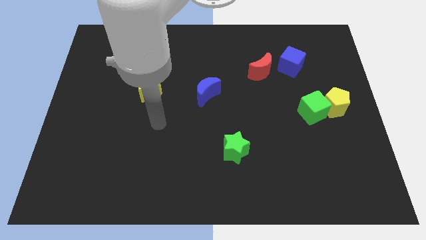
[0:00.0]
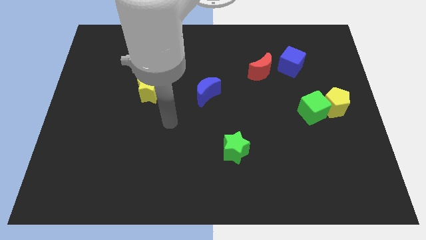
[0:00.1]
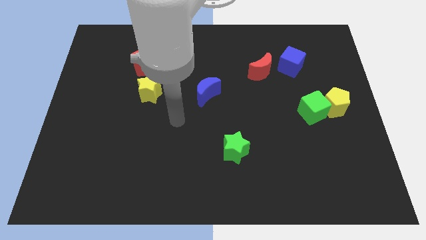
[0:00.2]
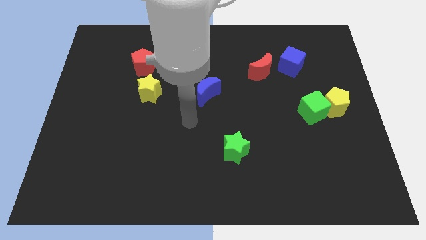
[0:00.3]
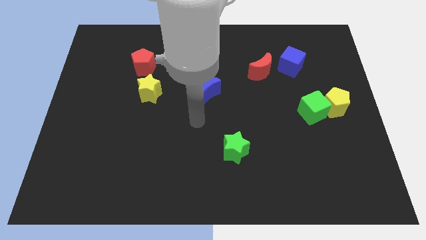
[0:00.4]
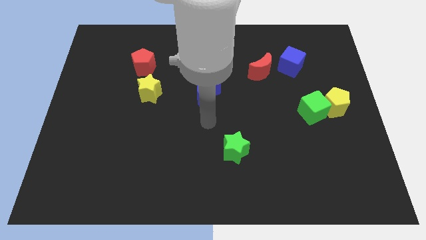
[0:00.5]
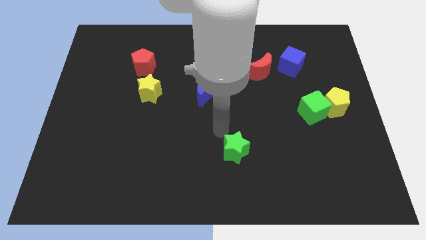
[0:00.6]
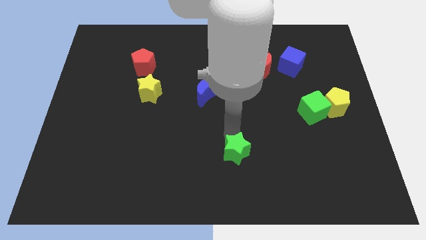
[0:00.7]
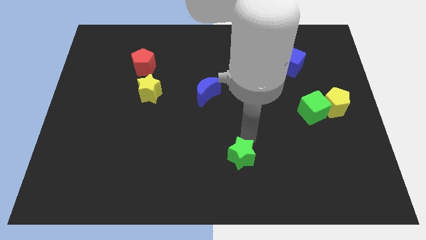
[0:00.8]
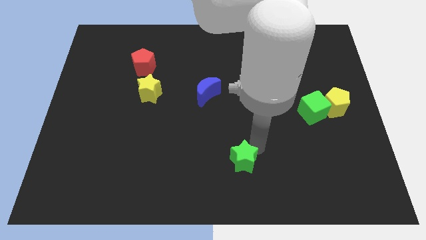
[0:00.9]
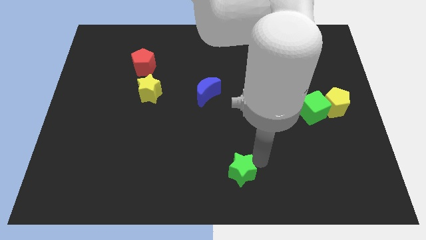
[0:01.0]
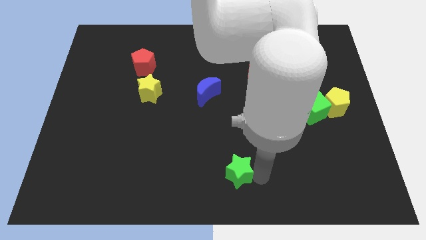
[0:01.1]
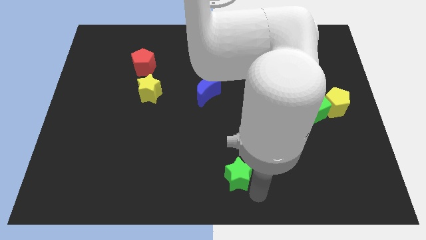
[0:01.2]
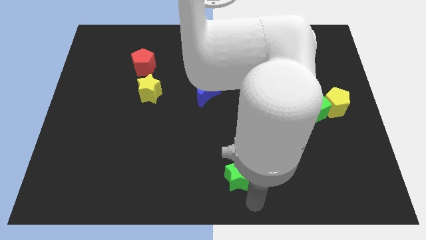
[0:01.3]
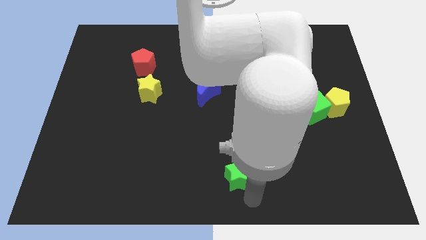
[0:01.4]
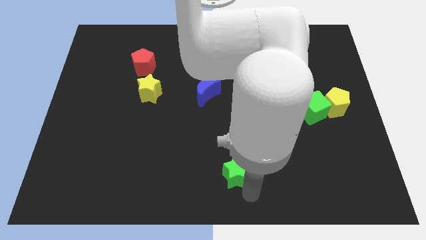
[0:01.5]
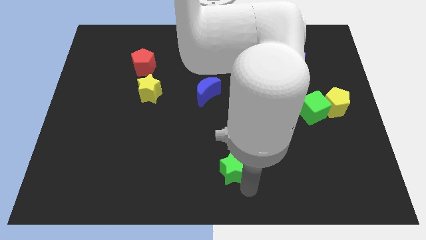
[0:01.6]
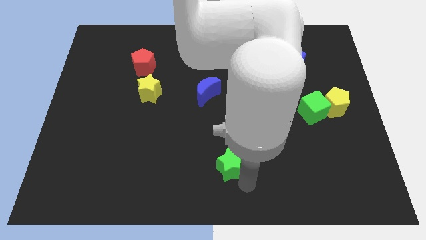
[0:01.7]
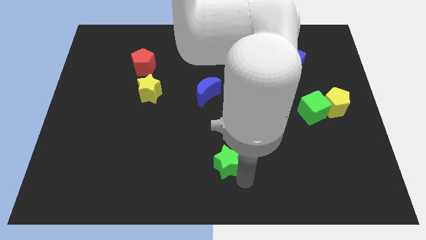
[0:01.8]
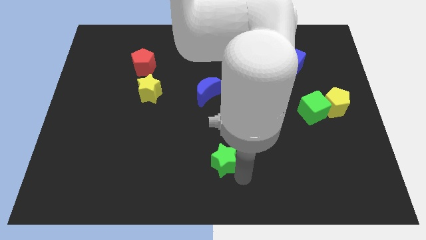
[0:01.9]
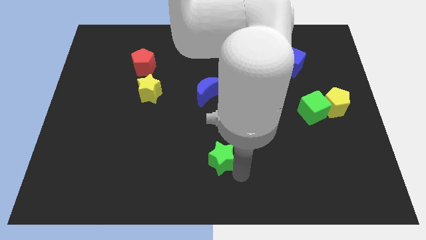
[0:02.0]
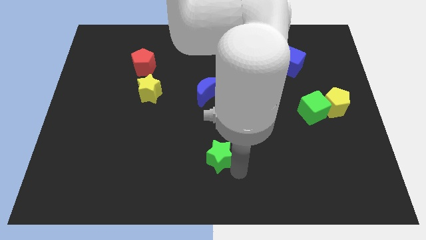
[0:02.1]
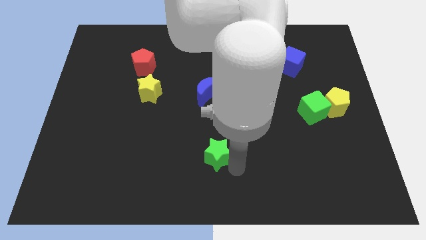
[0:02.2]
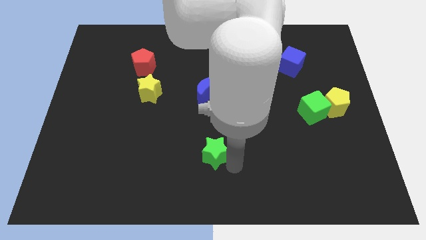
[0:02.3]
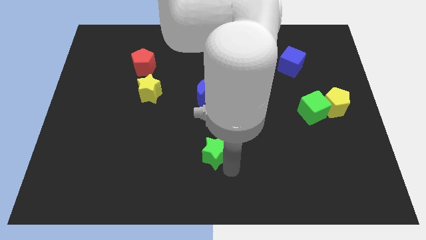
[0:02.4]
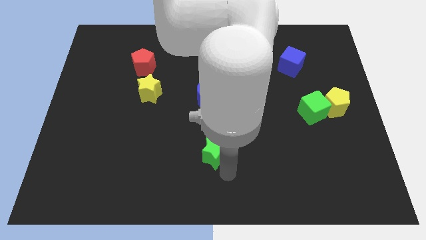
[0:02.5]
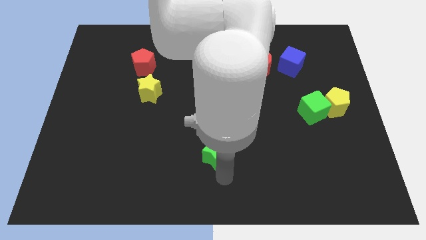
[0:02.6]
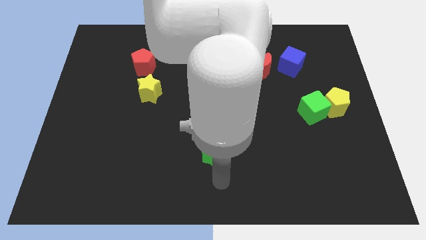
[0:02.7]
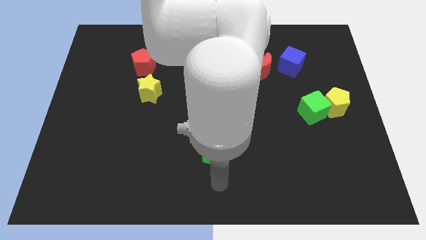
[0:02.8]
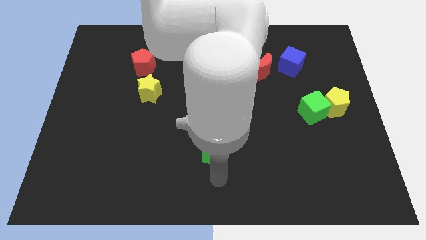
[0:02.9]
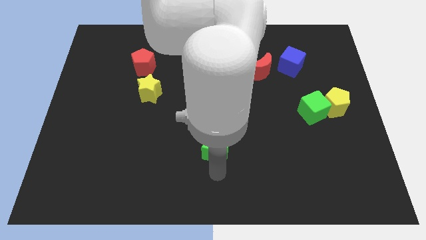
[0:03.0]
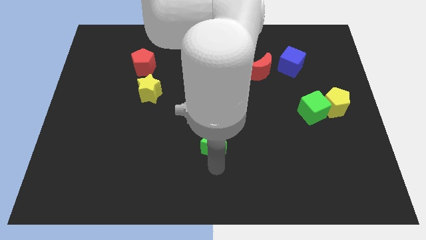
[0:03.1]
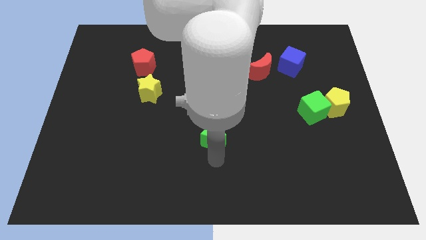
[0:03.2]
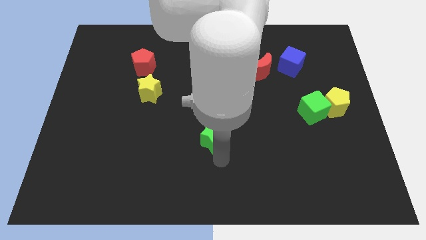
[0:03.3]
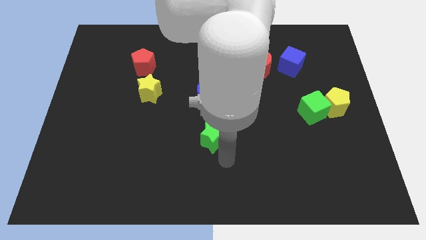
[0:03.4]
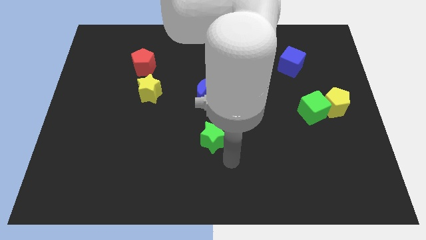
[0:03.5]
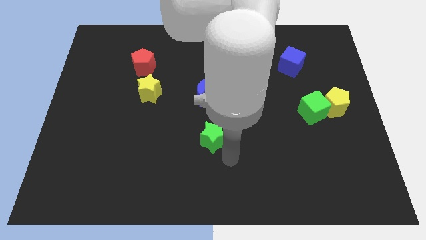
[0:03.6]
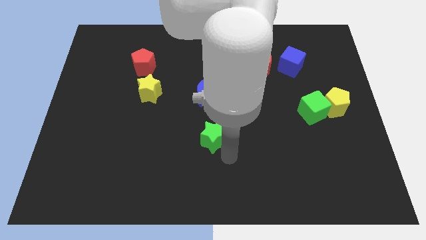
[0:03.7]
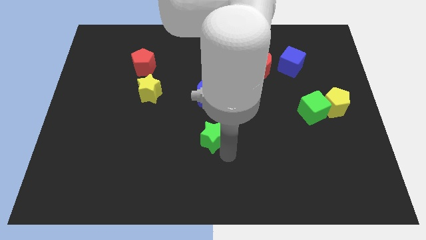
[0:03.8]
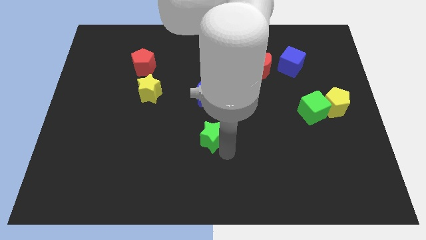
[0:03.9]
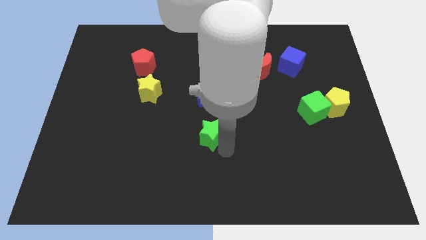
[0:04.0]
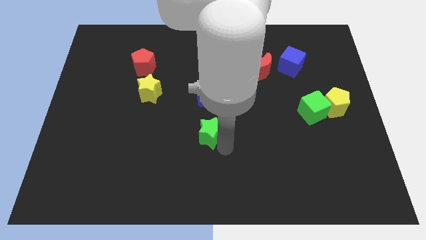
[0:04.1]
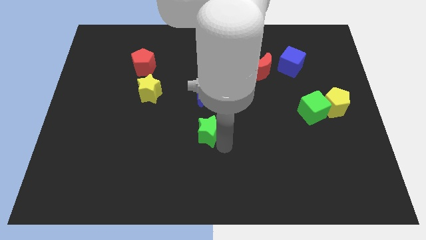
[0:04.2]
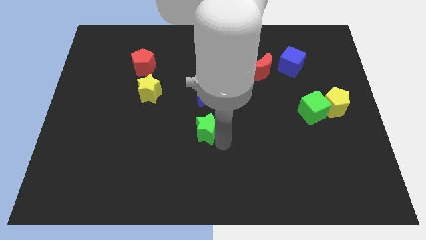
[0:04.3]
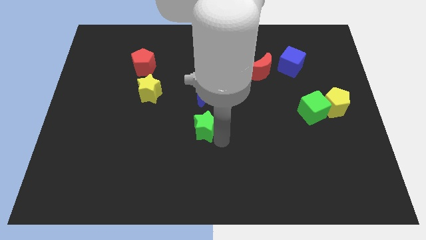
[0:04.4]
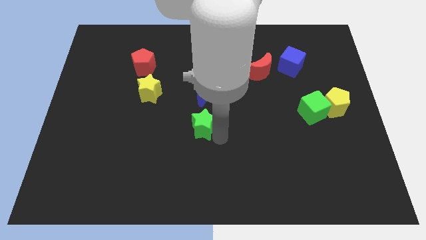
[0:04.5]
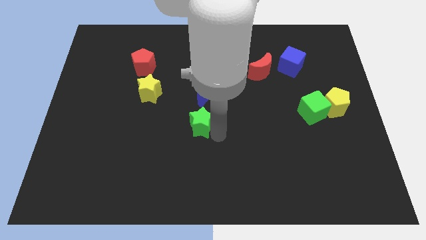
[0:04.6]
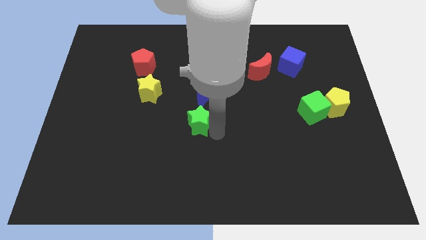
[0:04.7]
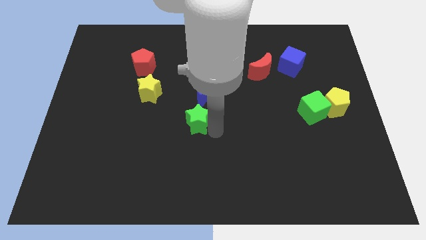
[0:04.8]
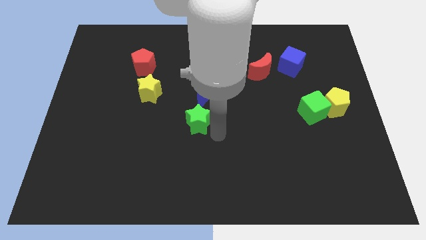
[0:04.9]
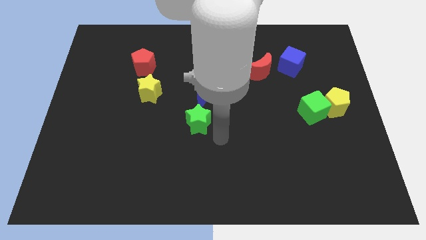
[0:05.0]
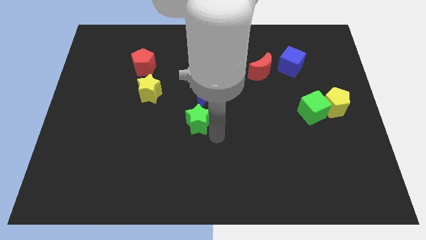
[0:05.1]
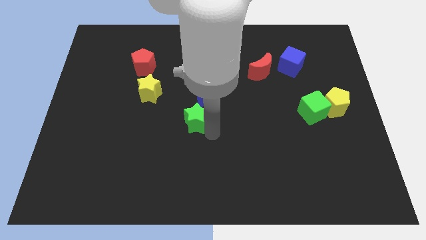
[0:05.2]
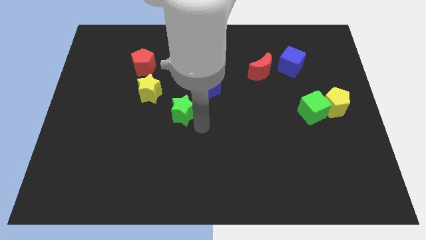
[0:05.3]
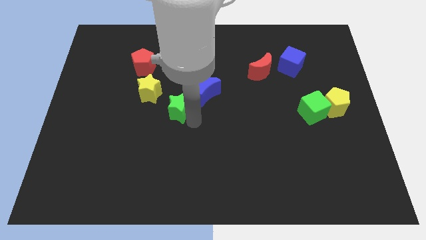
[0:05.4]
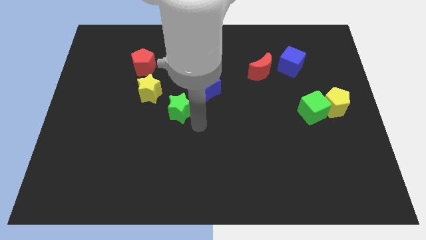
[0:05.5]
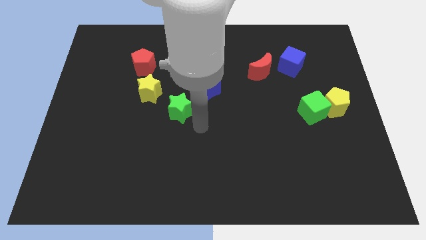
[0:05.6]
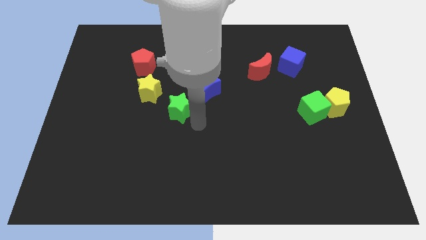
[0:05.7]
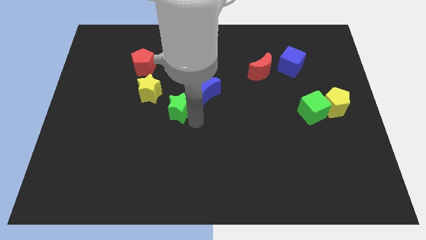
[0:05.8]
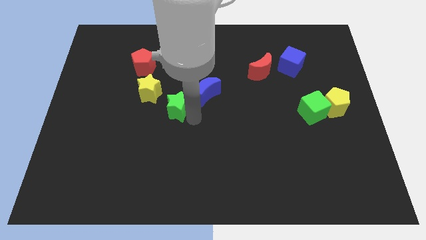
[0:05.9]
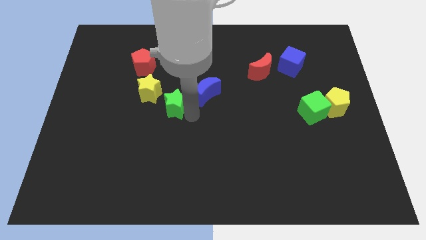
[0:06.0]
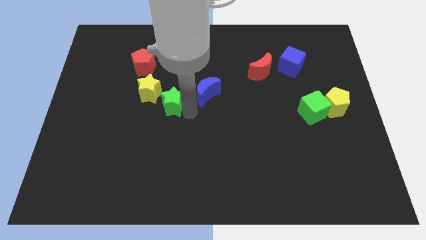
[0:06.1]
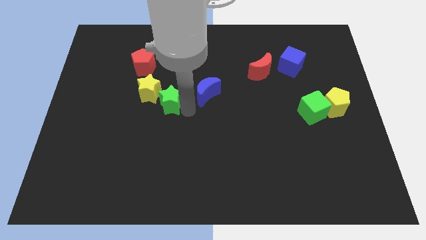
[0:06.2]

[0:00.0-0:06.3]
put the green star next to the yellow star
